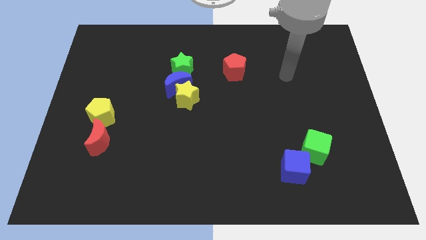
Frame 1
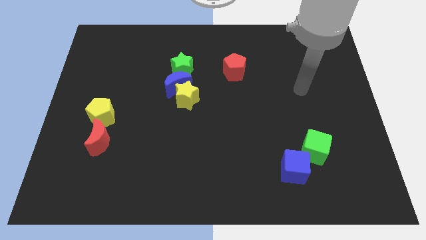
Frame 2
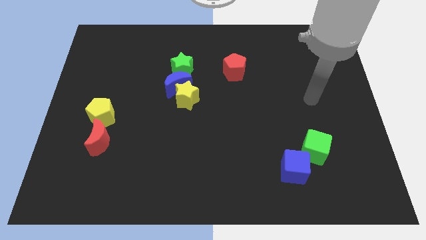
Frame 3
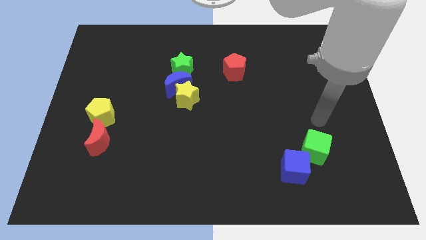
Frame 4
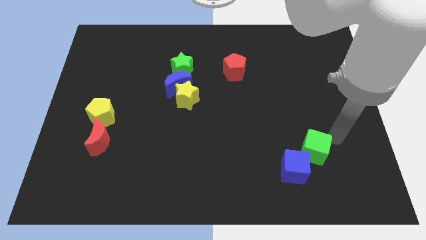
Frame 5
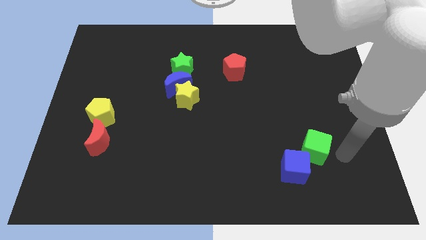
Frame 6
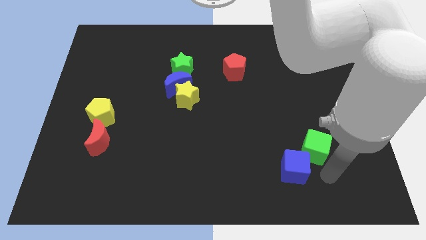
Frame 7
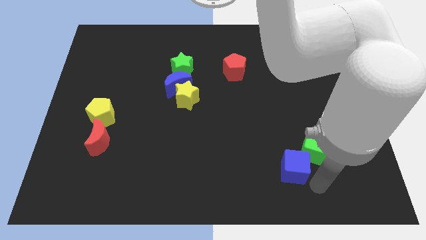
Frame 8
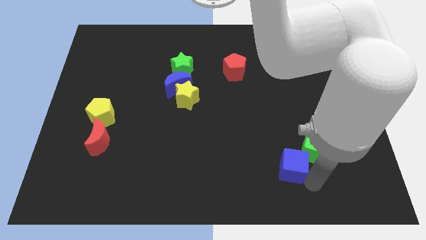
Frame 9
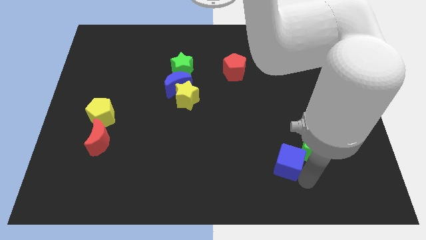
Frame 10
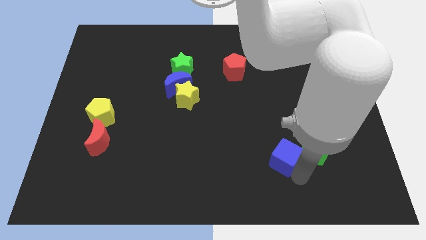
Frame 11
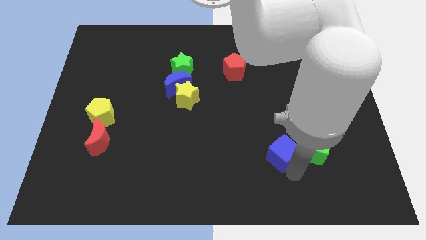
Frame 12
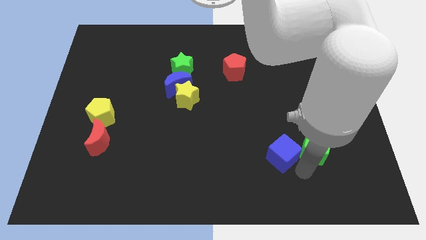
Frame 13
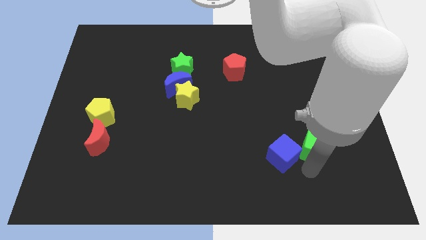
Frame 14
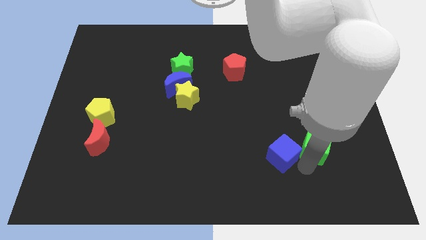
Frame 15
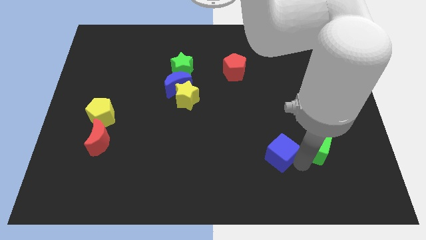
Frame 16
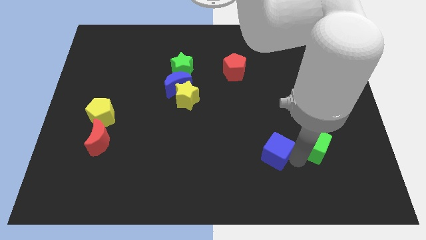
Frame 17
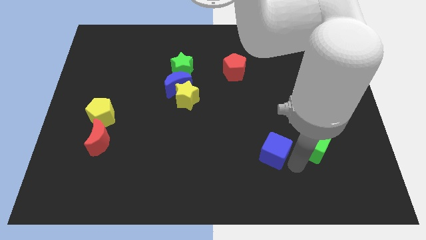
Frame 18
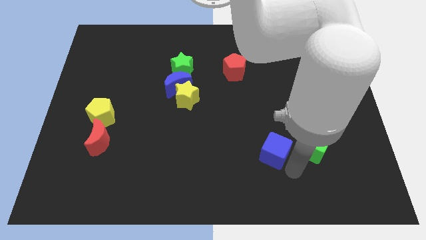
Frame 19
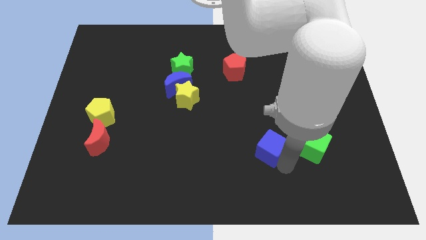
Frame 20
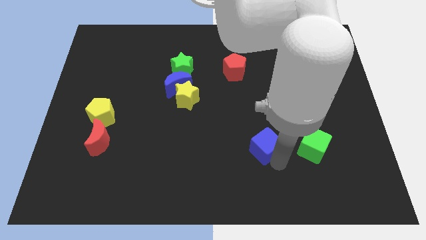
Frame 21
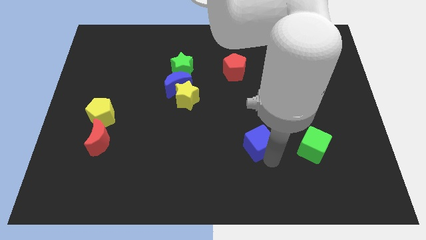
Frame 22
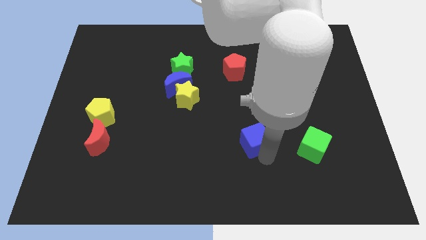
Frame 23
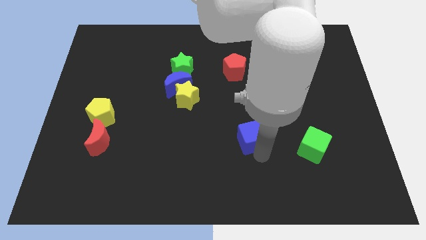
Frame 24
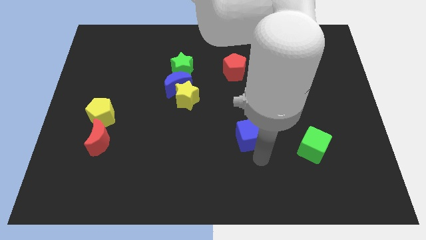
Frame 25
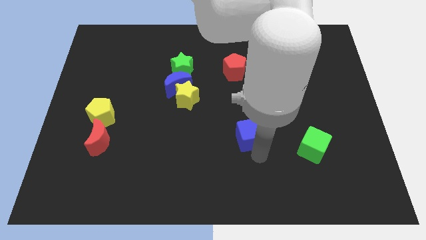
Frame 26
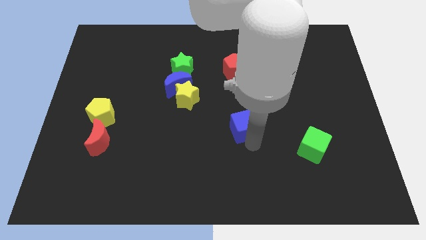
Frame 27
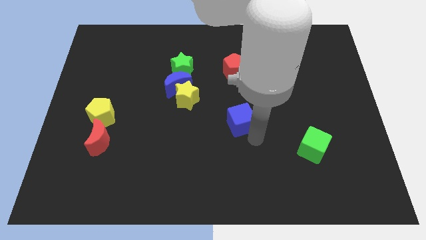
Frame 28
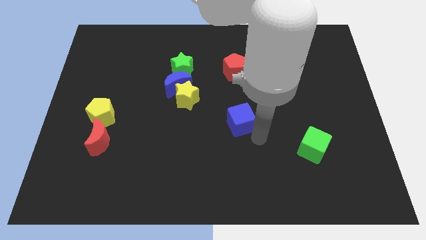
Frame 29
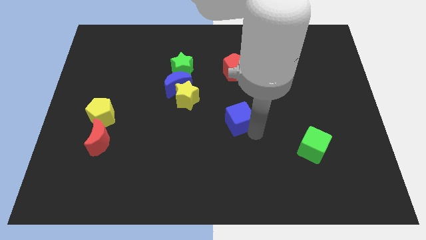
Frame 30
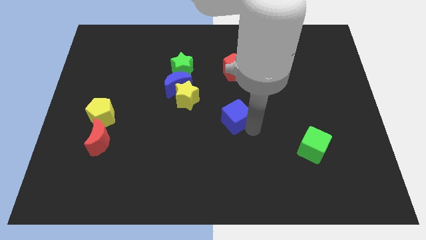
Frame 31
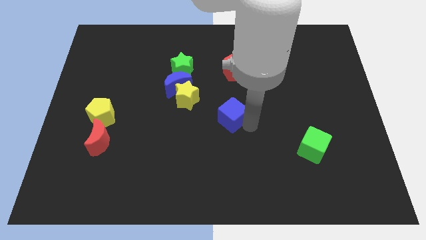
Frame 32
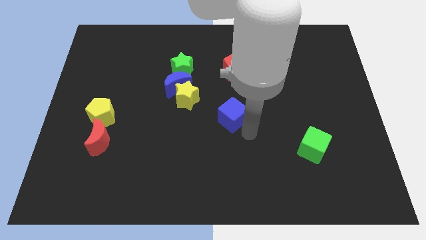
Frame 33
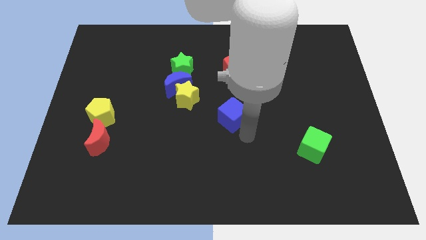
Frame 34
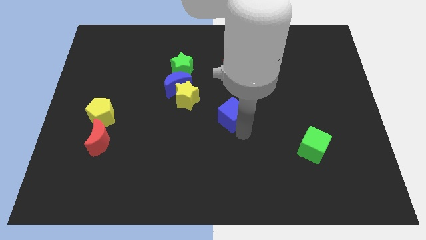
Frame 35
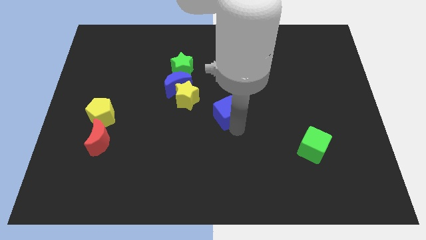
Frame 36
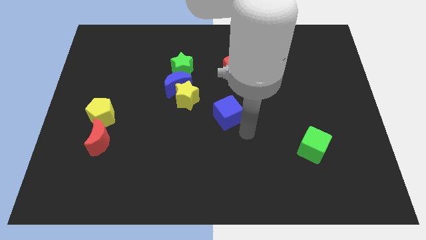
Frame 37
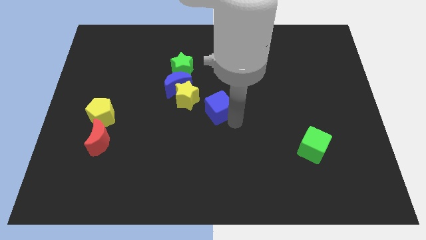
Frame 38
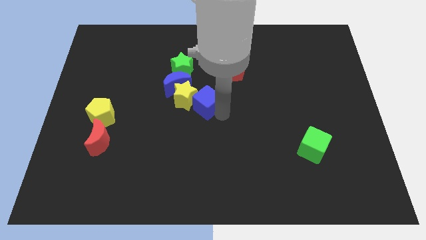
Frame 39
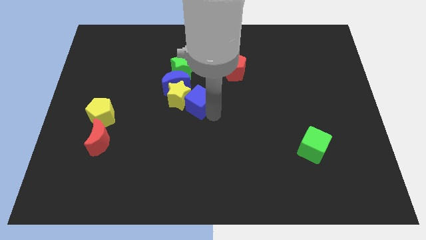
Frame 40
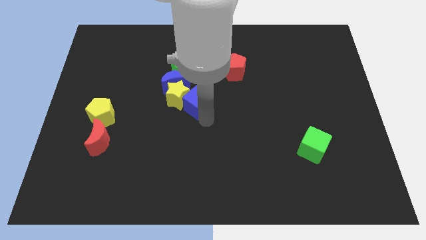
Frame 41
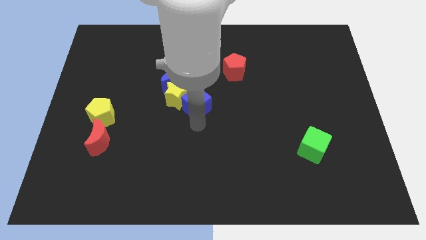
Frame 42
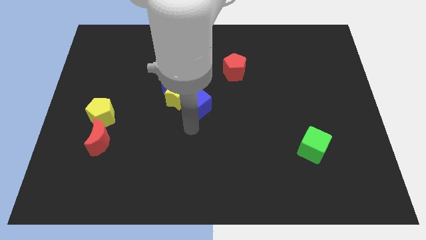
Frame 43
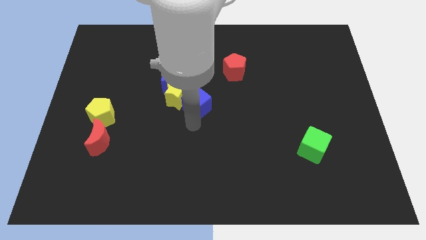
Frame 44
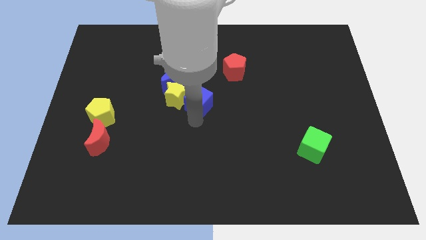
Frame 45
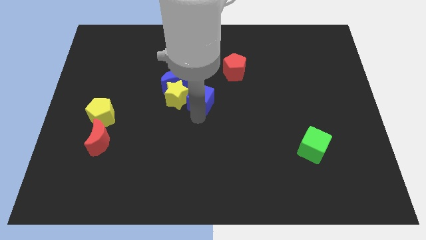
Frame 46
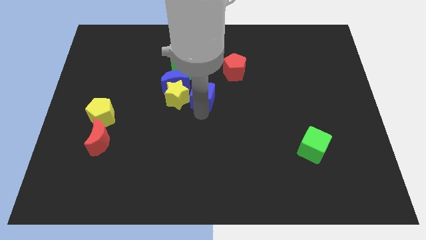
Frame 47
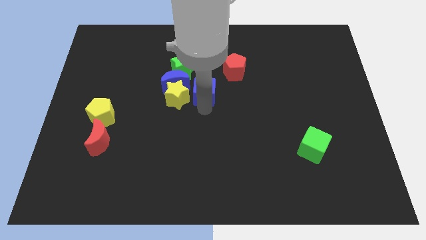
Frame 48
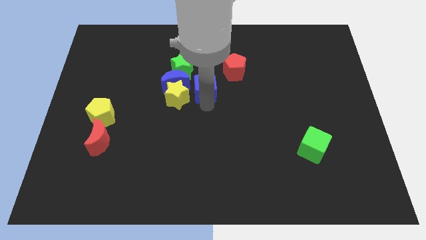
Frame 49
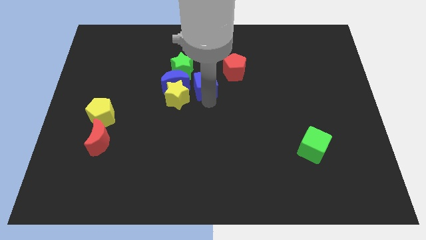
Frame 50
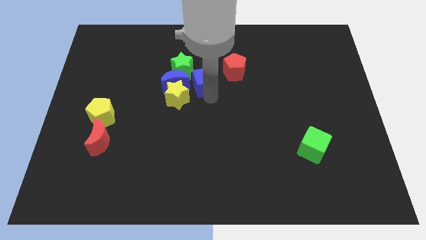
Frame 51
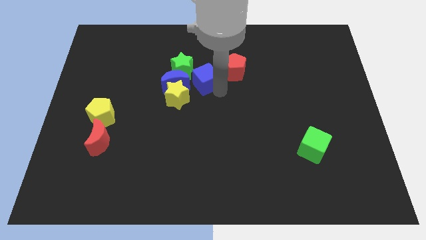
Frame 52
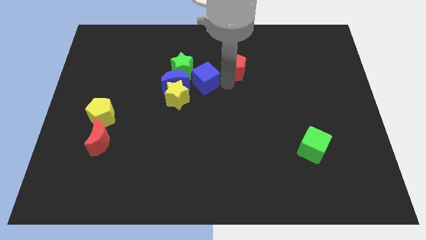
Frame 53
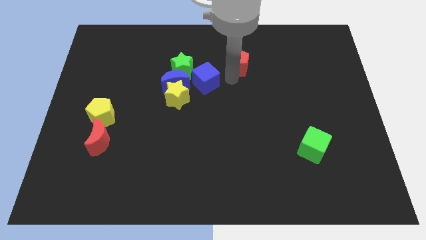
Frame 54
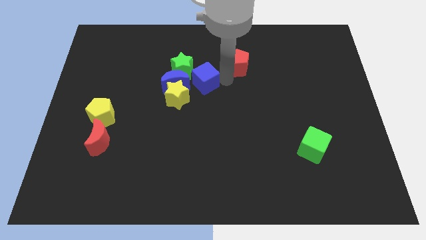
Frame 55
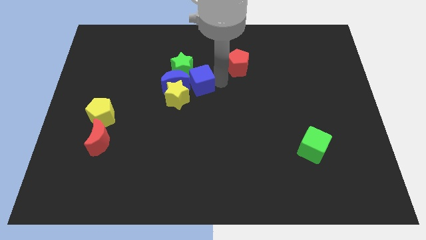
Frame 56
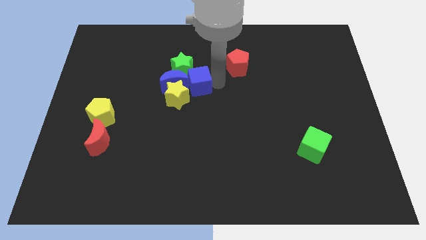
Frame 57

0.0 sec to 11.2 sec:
move the blue cube towards the blue moon

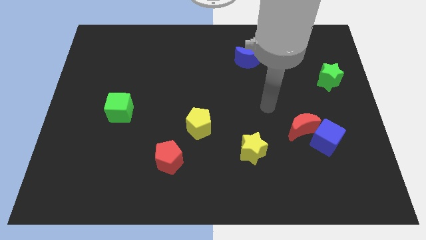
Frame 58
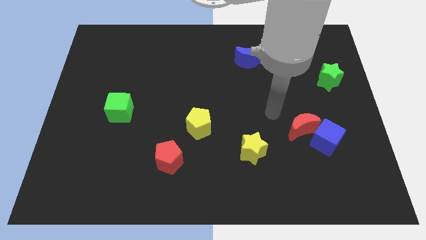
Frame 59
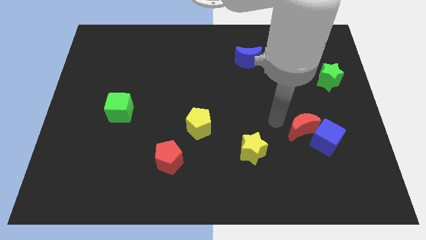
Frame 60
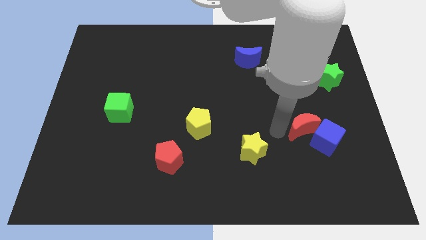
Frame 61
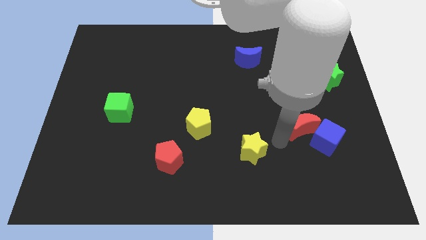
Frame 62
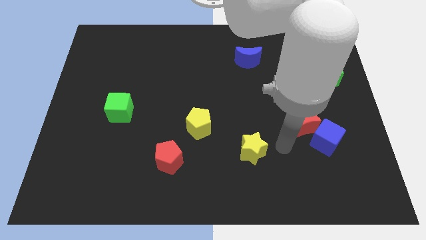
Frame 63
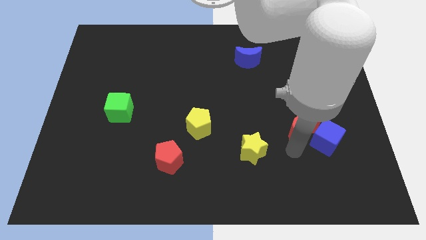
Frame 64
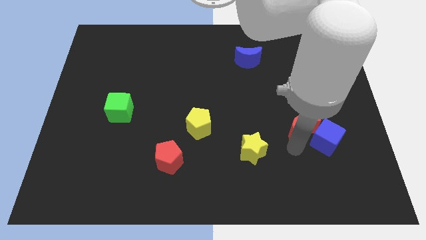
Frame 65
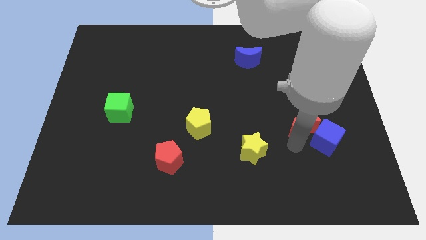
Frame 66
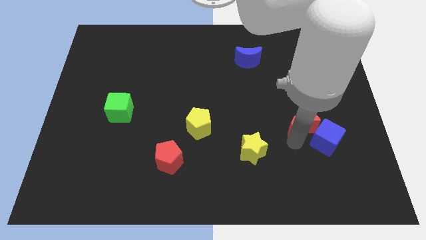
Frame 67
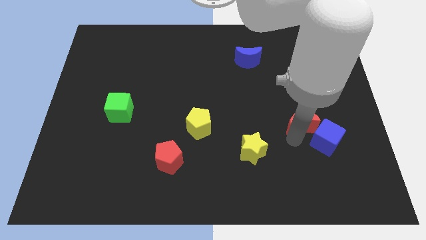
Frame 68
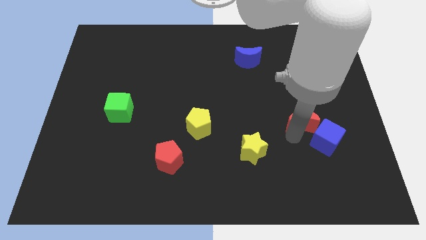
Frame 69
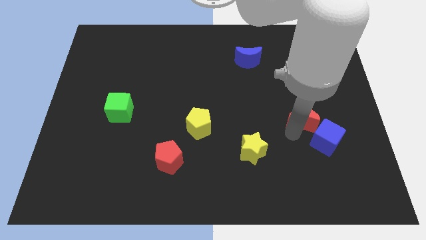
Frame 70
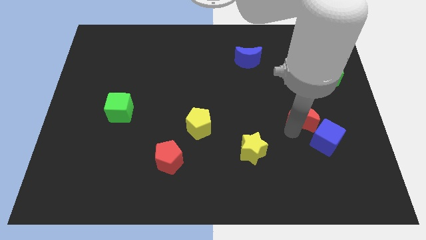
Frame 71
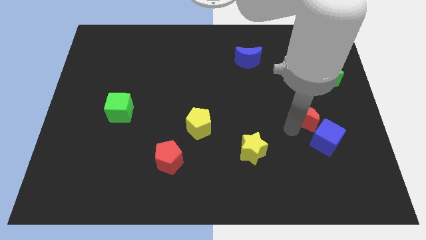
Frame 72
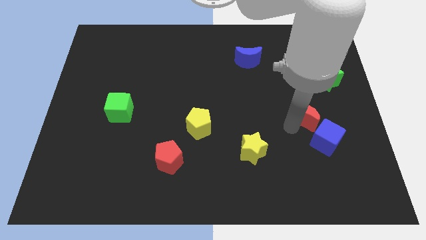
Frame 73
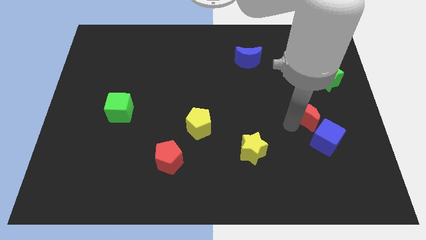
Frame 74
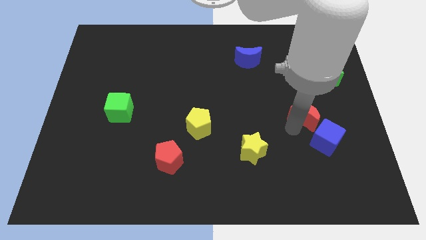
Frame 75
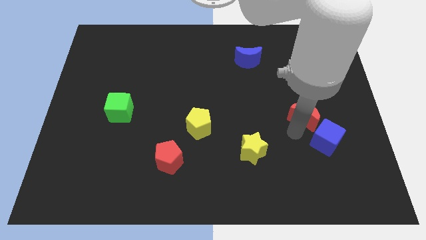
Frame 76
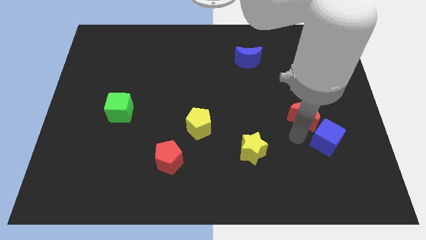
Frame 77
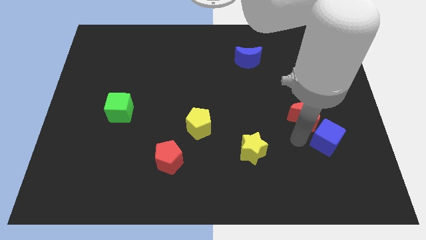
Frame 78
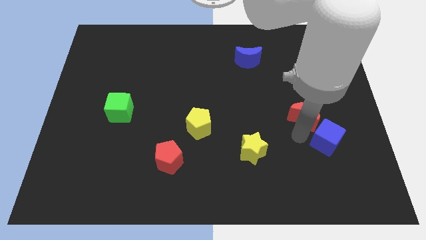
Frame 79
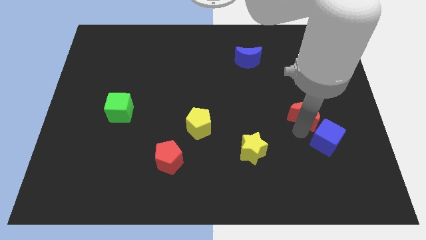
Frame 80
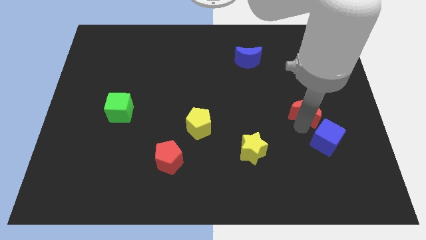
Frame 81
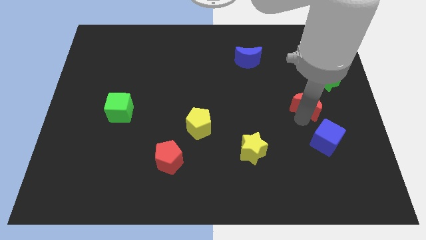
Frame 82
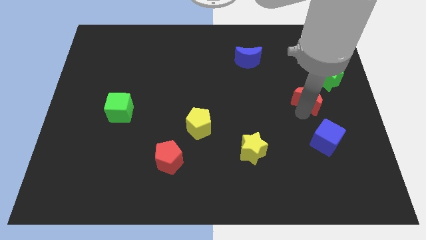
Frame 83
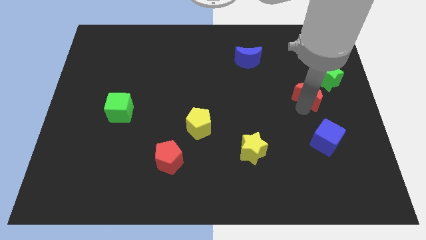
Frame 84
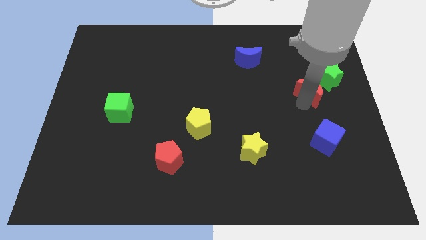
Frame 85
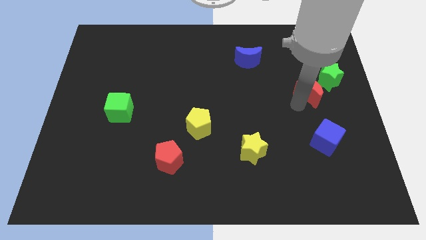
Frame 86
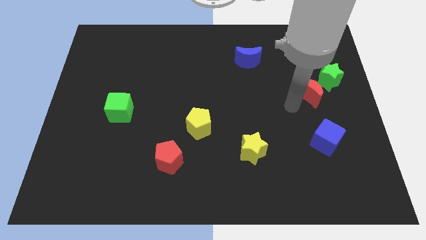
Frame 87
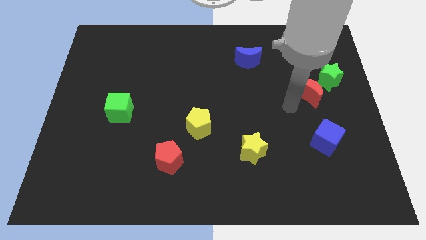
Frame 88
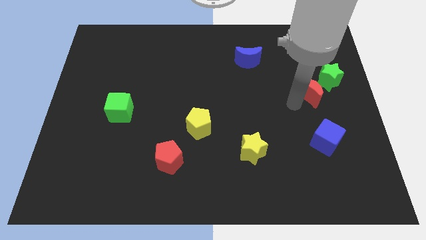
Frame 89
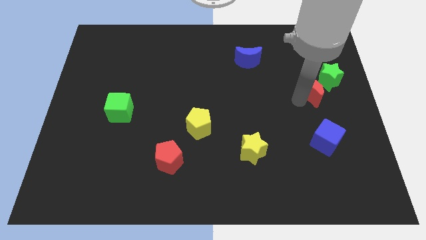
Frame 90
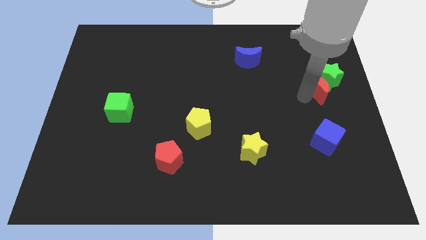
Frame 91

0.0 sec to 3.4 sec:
slide the red moon towards the green star
